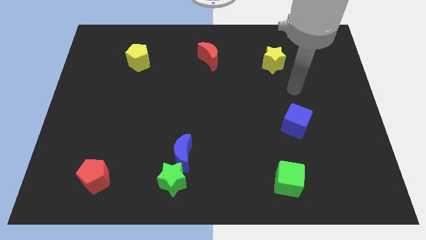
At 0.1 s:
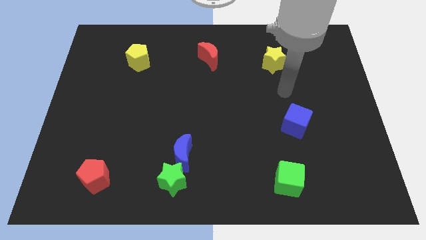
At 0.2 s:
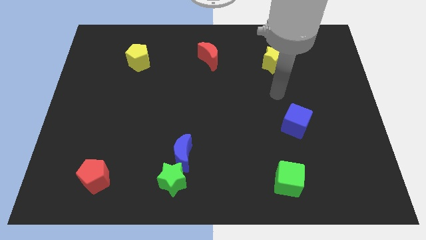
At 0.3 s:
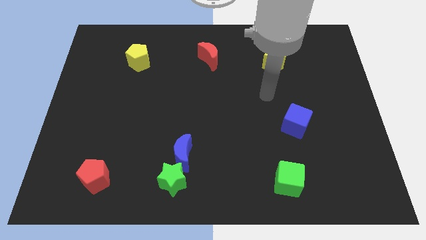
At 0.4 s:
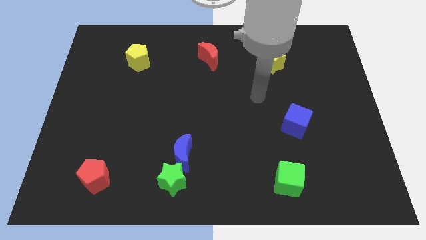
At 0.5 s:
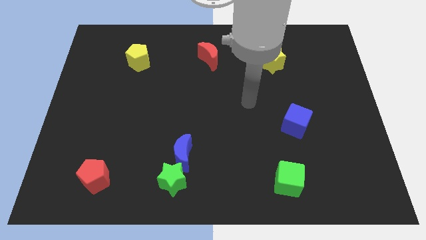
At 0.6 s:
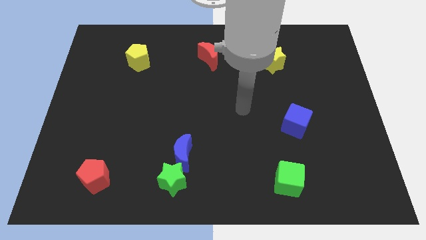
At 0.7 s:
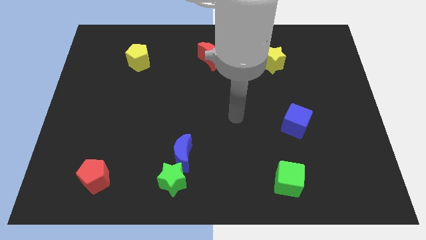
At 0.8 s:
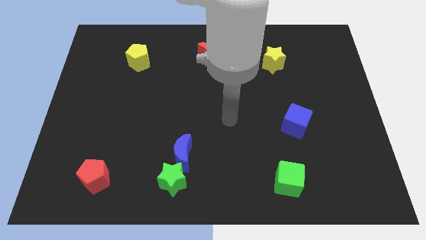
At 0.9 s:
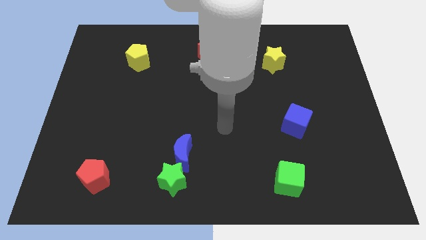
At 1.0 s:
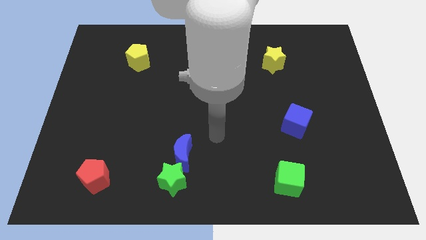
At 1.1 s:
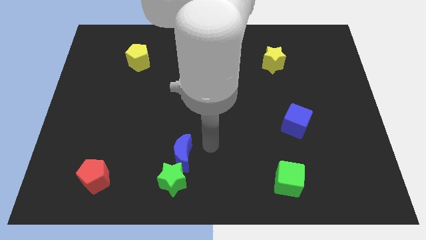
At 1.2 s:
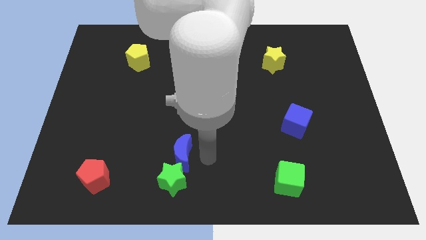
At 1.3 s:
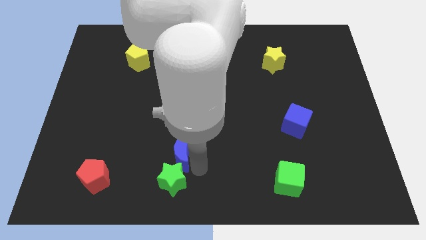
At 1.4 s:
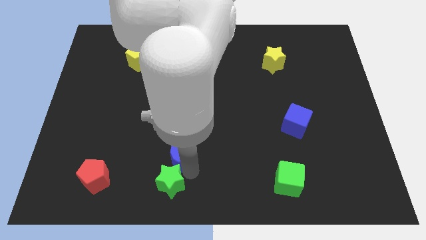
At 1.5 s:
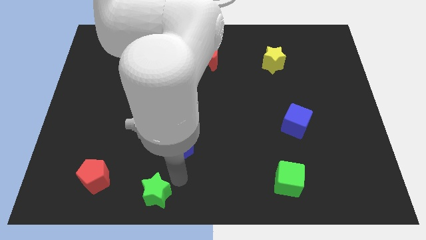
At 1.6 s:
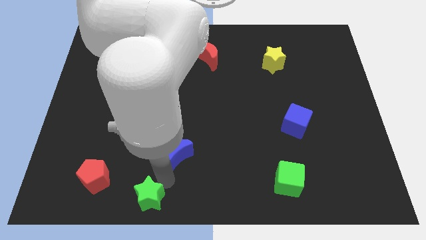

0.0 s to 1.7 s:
move the blue moon away from the green star

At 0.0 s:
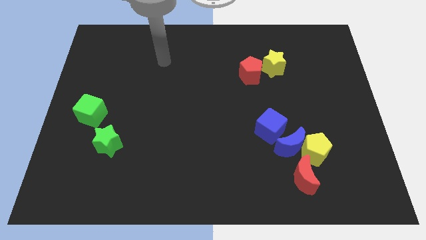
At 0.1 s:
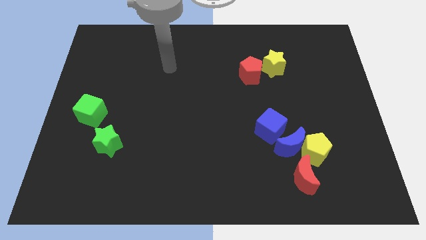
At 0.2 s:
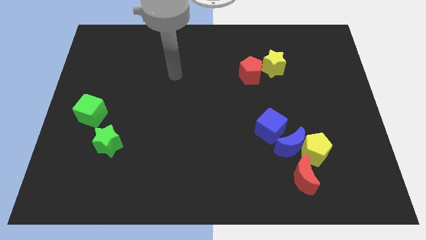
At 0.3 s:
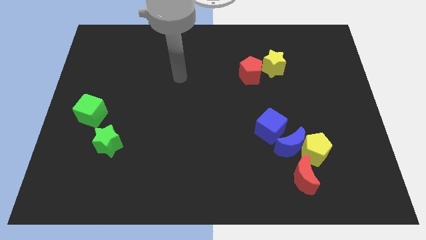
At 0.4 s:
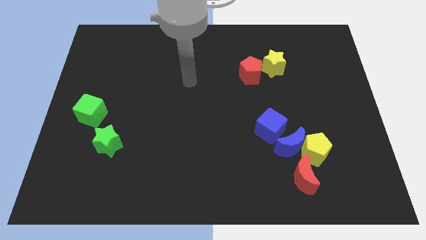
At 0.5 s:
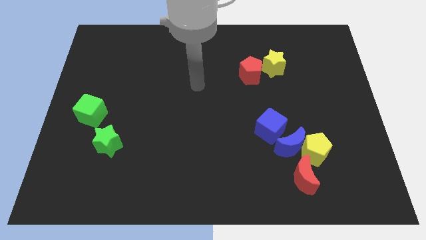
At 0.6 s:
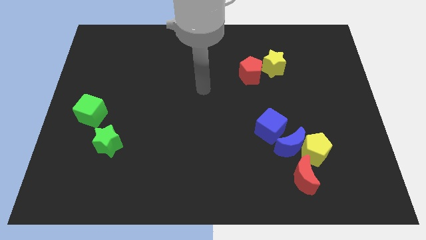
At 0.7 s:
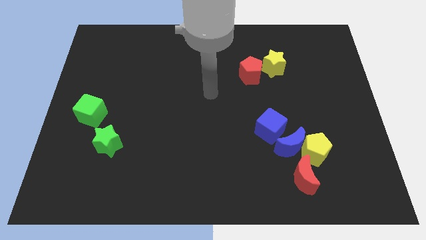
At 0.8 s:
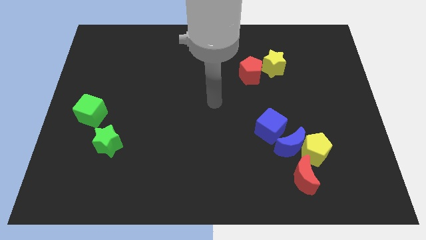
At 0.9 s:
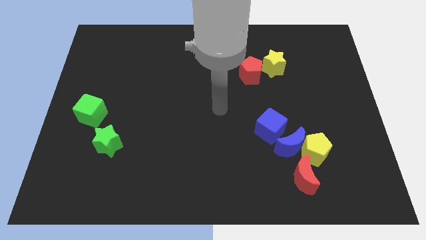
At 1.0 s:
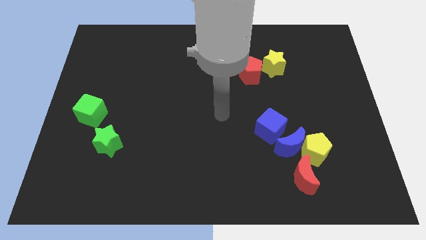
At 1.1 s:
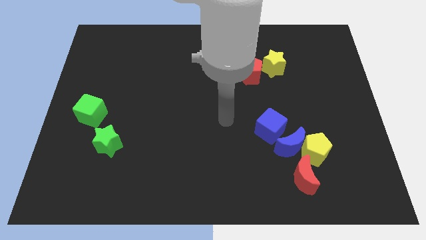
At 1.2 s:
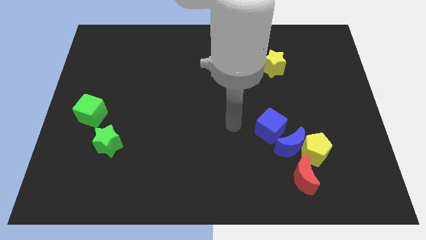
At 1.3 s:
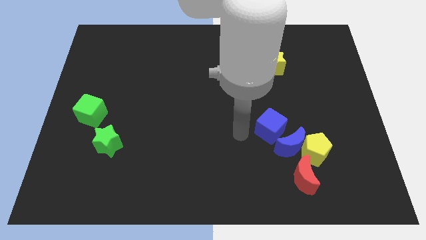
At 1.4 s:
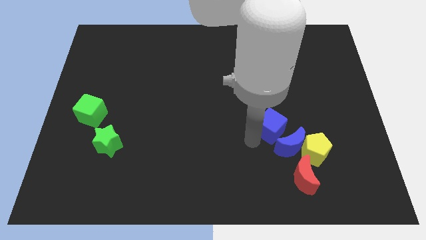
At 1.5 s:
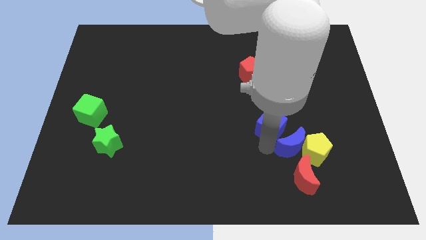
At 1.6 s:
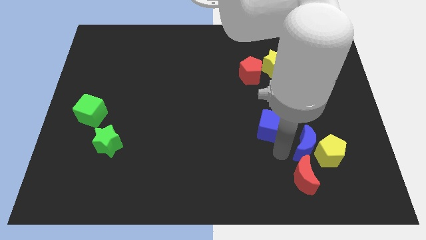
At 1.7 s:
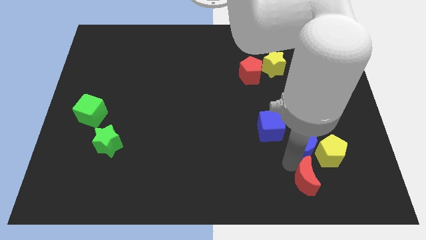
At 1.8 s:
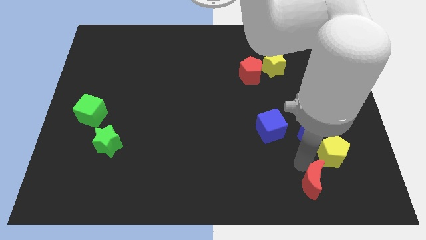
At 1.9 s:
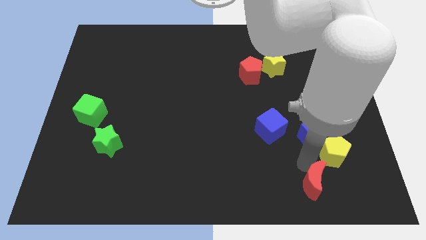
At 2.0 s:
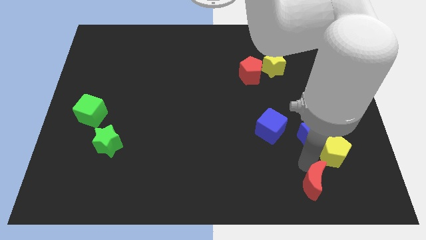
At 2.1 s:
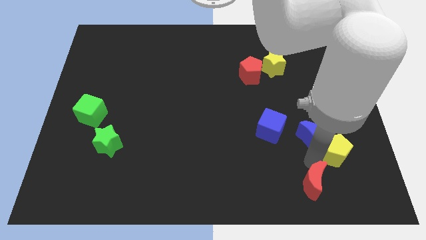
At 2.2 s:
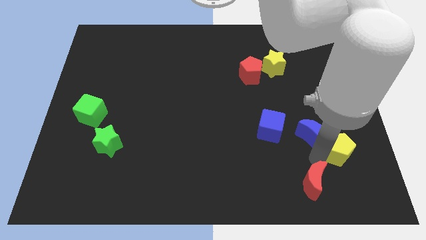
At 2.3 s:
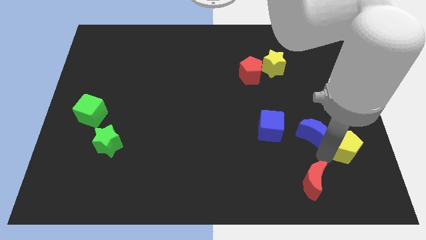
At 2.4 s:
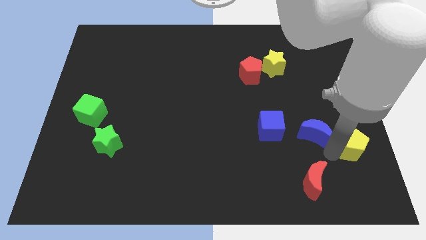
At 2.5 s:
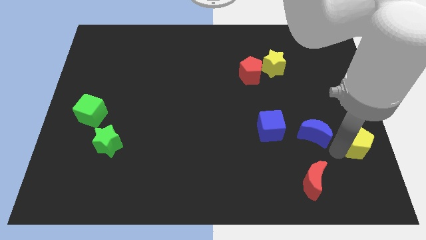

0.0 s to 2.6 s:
move the yellow pentagon away from the blue moon and red moon

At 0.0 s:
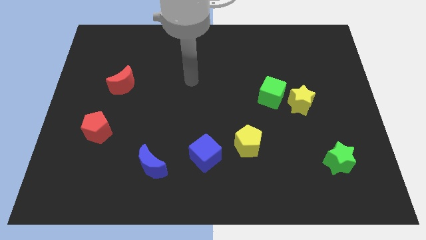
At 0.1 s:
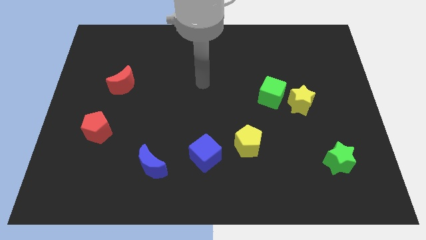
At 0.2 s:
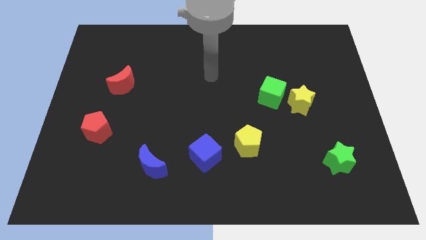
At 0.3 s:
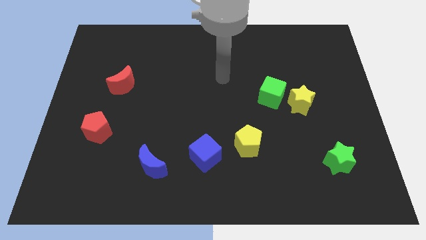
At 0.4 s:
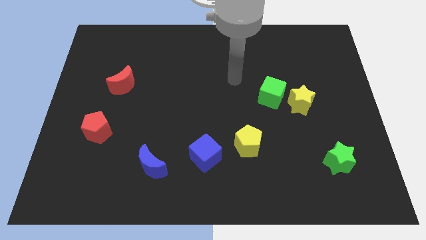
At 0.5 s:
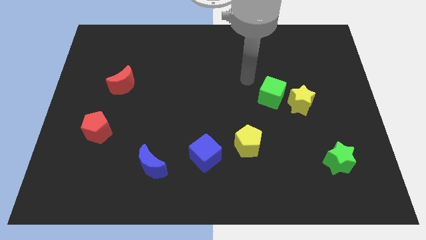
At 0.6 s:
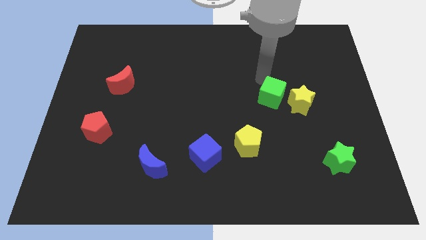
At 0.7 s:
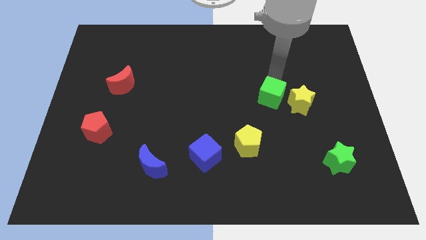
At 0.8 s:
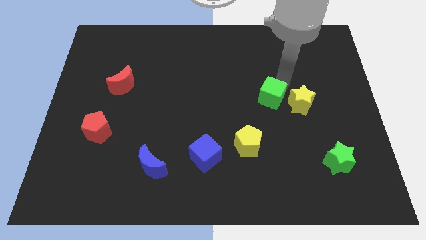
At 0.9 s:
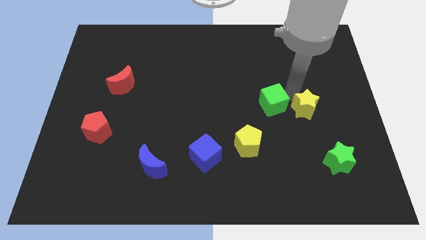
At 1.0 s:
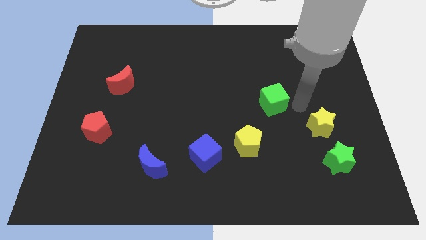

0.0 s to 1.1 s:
move the green cube away from the yellow star

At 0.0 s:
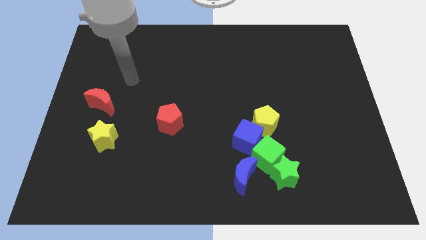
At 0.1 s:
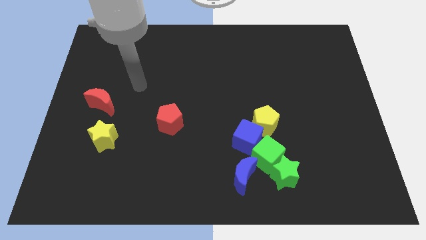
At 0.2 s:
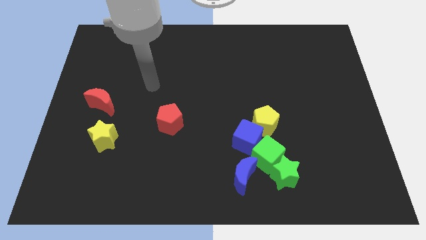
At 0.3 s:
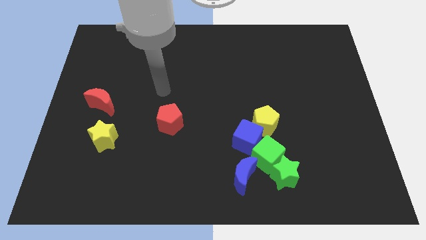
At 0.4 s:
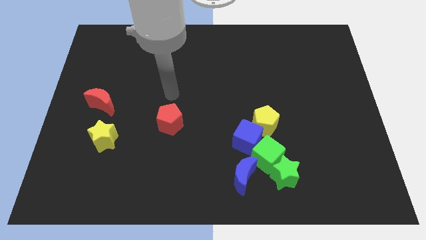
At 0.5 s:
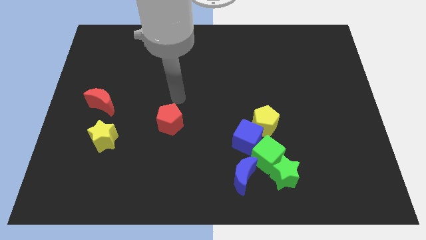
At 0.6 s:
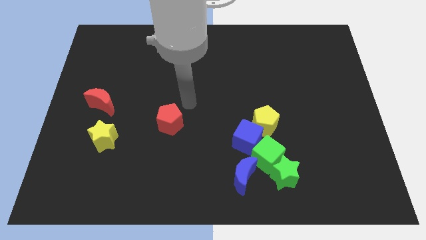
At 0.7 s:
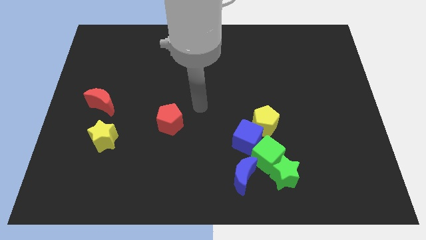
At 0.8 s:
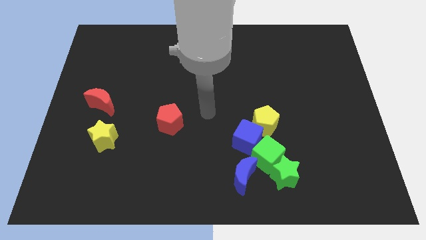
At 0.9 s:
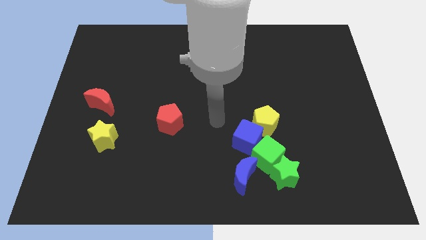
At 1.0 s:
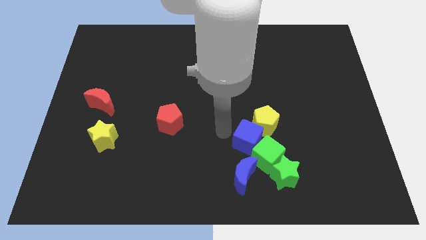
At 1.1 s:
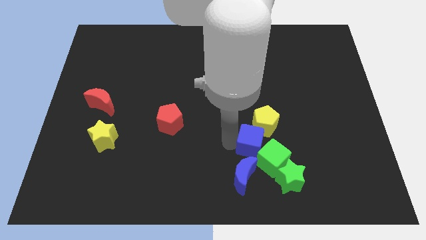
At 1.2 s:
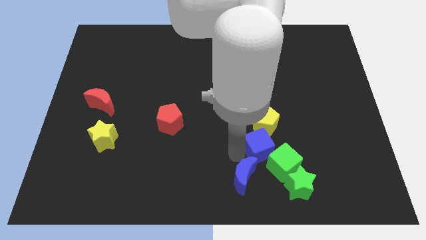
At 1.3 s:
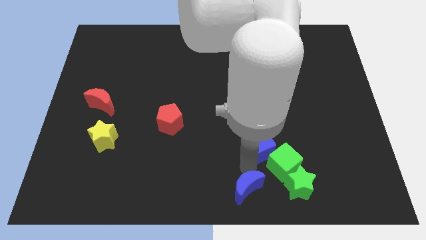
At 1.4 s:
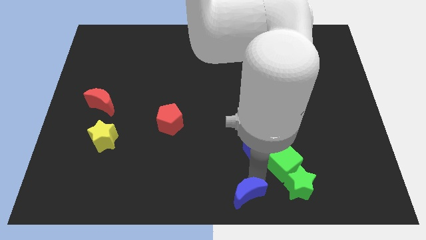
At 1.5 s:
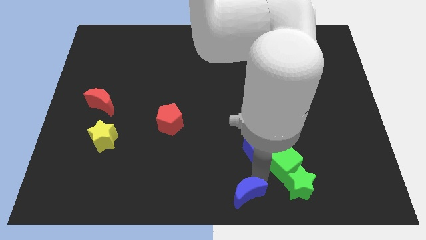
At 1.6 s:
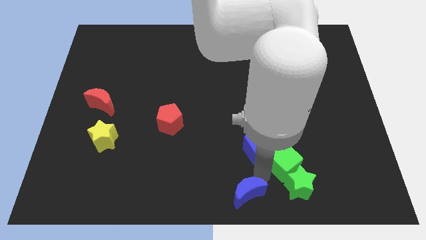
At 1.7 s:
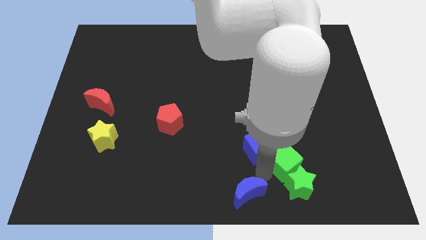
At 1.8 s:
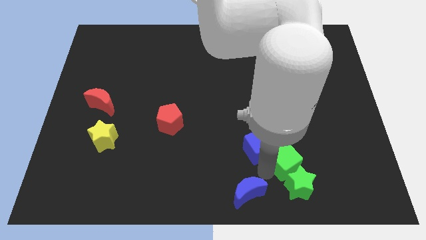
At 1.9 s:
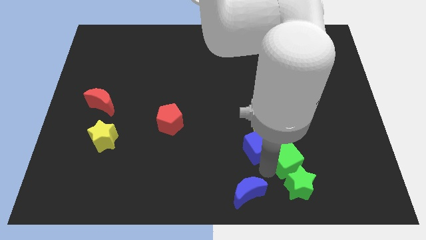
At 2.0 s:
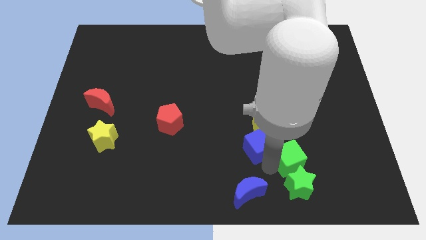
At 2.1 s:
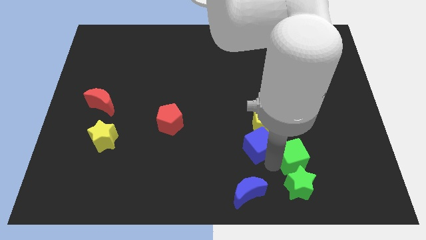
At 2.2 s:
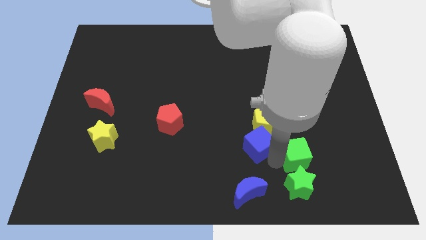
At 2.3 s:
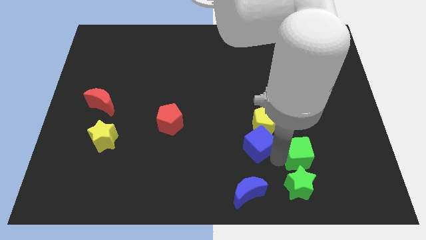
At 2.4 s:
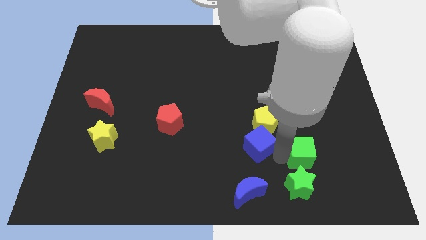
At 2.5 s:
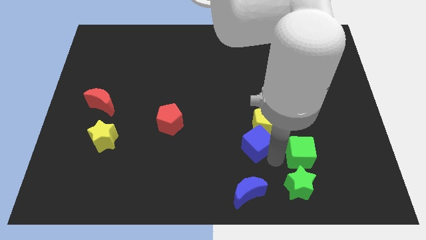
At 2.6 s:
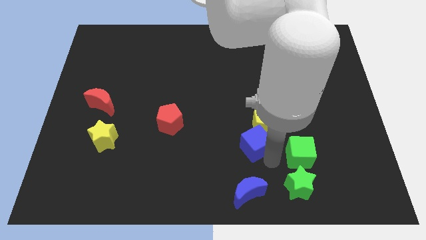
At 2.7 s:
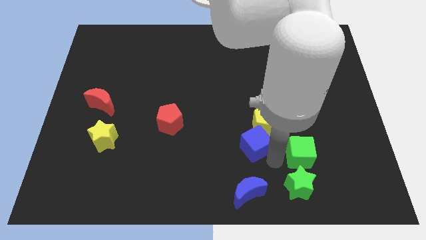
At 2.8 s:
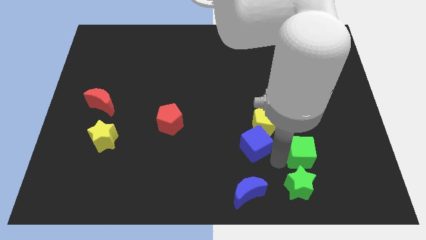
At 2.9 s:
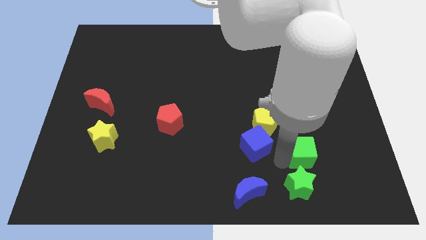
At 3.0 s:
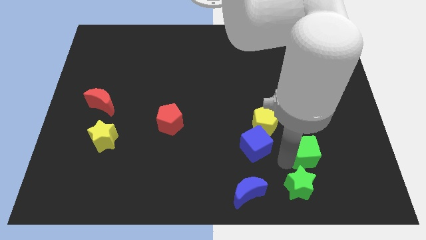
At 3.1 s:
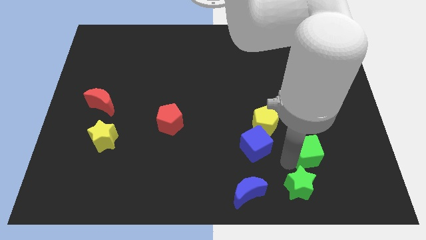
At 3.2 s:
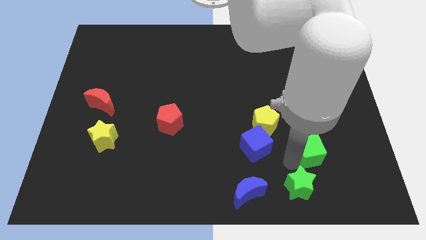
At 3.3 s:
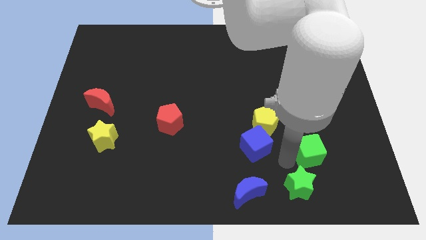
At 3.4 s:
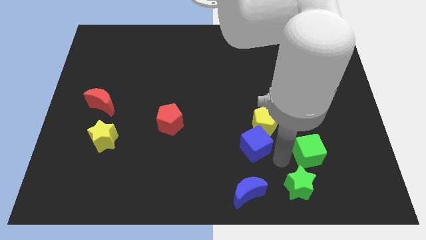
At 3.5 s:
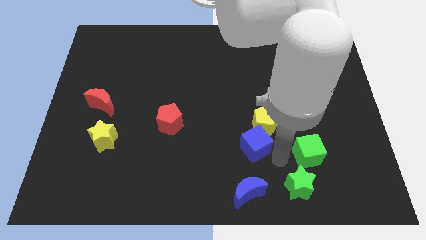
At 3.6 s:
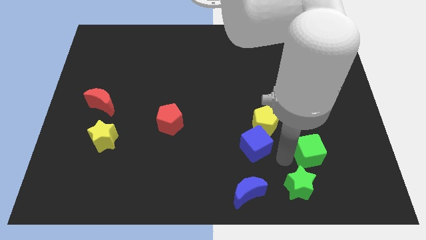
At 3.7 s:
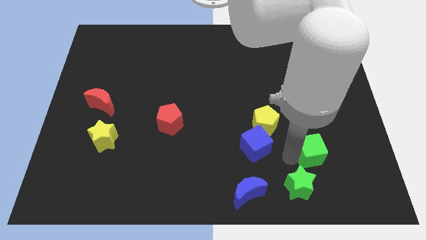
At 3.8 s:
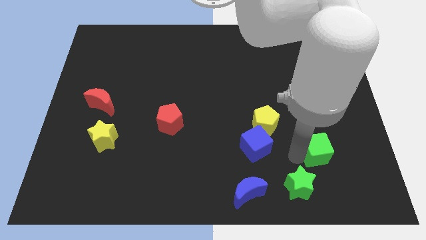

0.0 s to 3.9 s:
pull the green cube apart from the group

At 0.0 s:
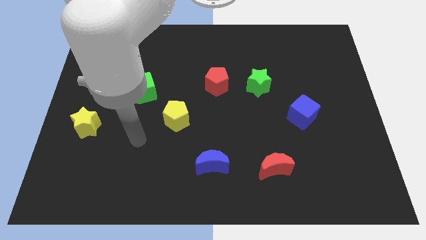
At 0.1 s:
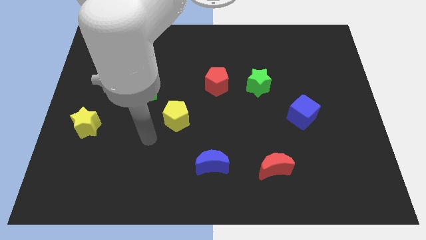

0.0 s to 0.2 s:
separate the red pentagon from the green star

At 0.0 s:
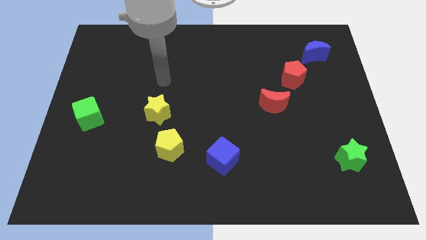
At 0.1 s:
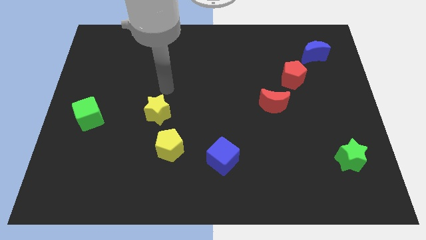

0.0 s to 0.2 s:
move the yellow star away from the yellow pentagon
